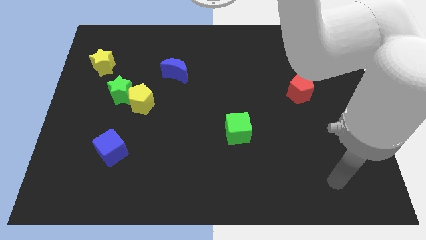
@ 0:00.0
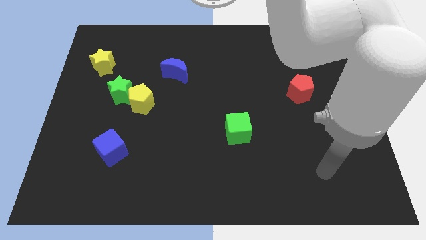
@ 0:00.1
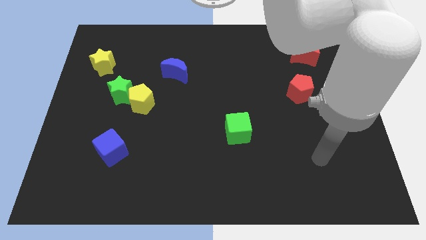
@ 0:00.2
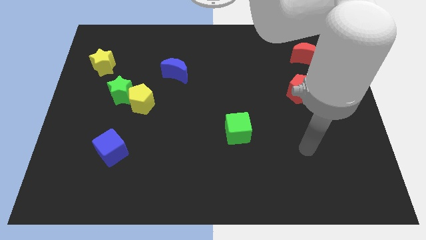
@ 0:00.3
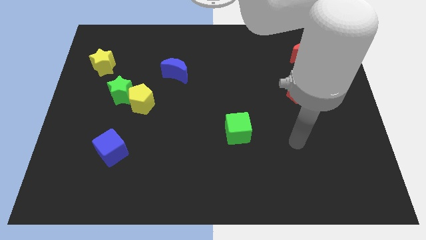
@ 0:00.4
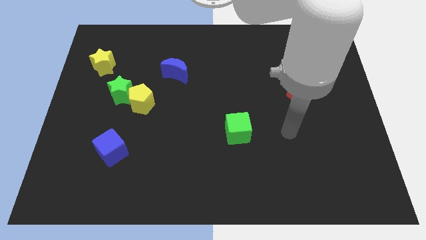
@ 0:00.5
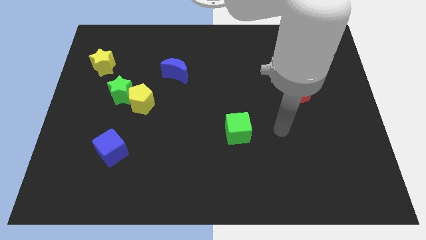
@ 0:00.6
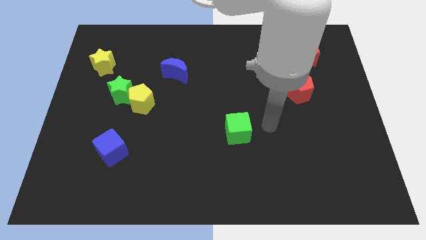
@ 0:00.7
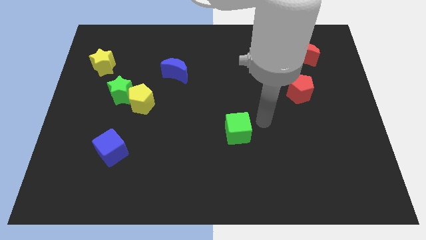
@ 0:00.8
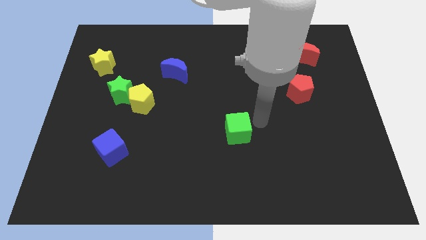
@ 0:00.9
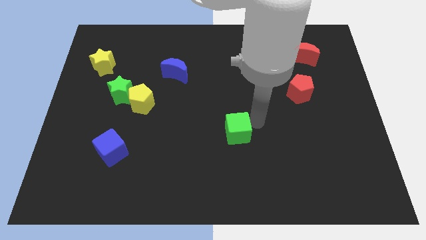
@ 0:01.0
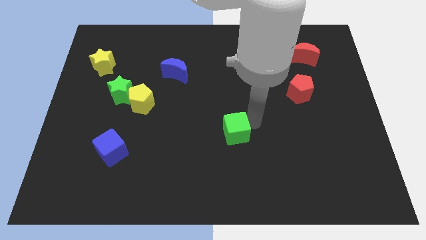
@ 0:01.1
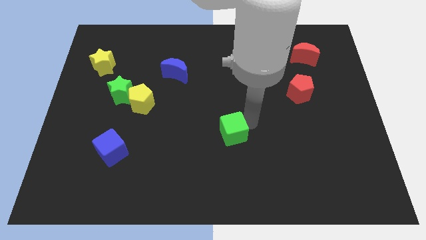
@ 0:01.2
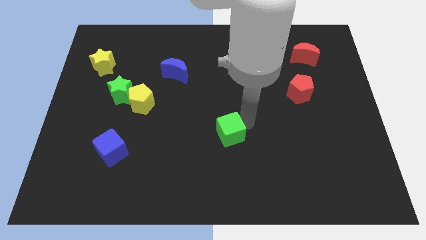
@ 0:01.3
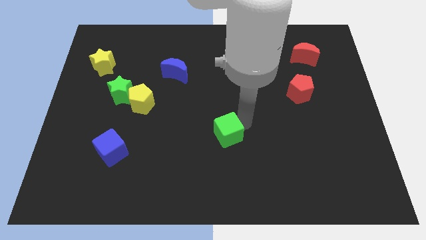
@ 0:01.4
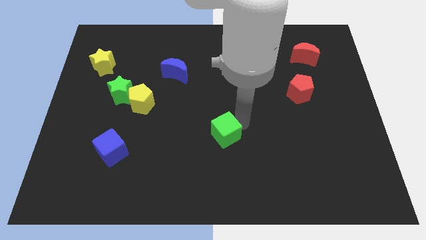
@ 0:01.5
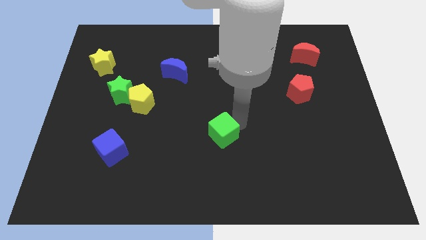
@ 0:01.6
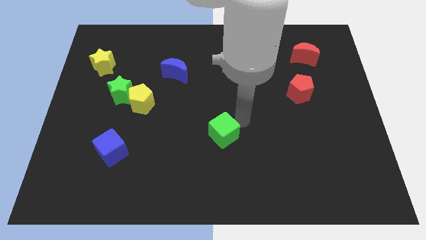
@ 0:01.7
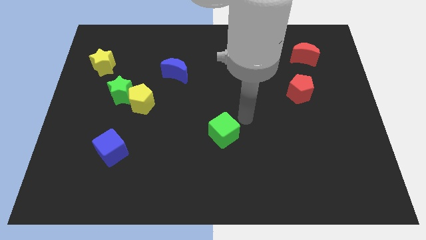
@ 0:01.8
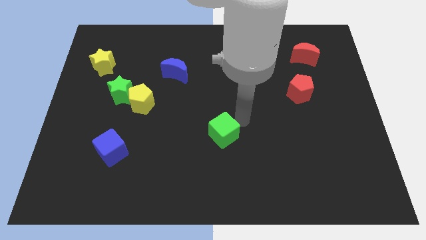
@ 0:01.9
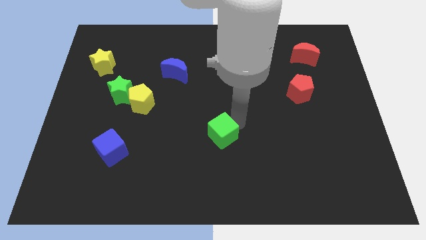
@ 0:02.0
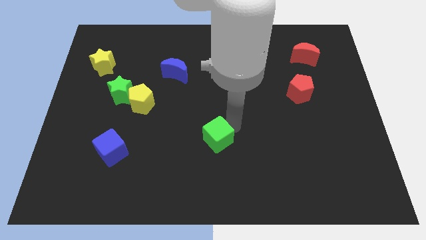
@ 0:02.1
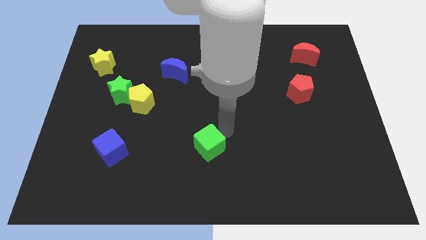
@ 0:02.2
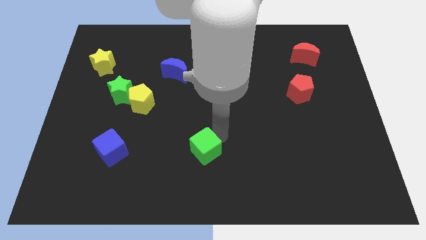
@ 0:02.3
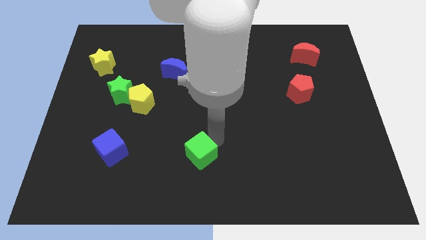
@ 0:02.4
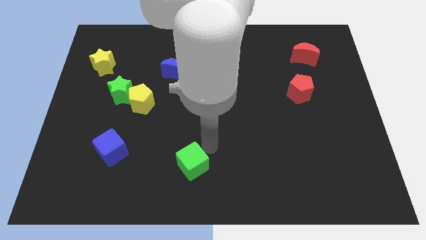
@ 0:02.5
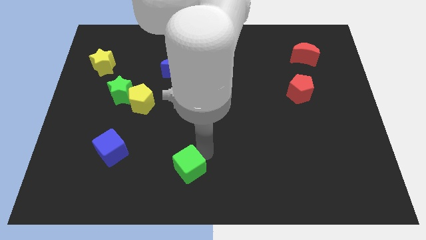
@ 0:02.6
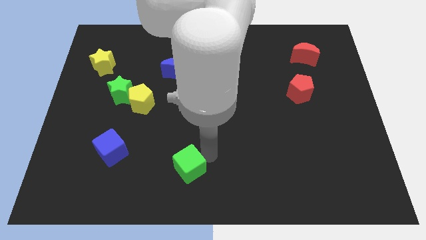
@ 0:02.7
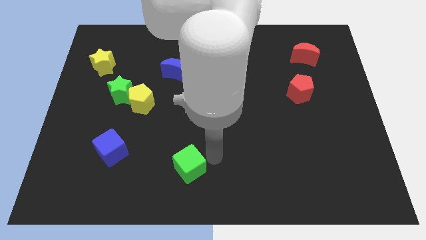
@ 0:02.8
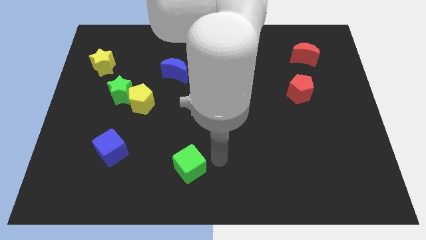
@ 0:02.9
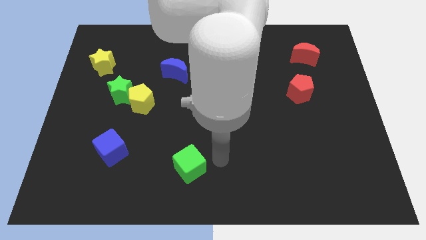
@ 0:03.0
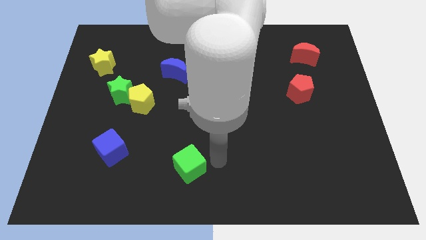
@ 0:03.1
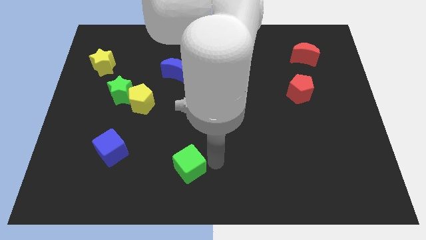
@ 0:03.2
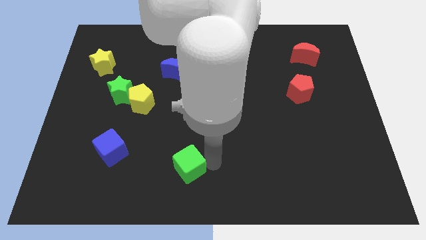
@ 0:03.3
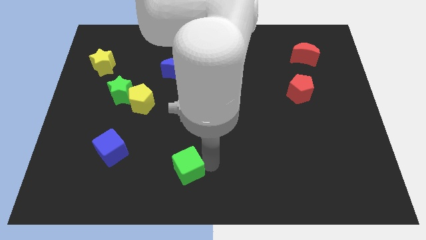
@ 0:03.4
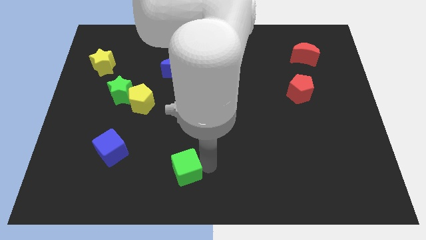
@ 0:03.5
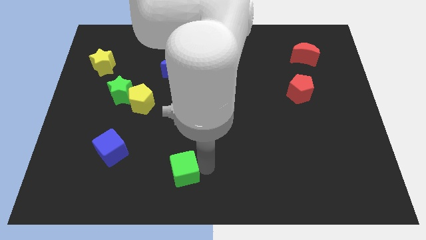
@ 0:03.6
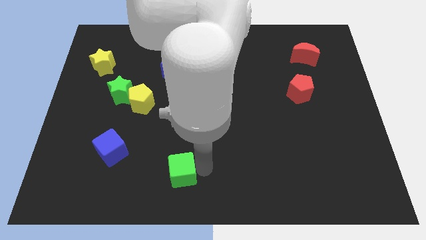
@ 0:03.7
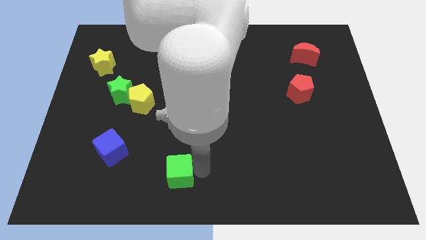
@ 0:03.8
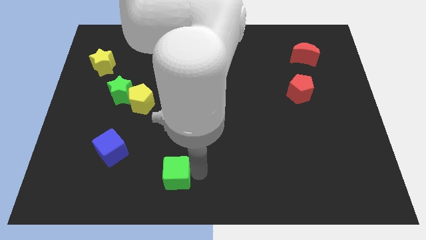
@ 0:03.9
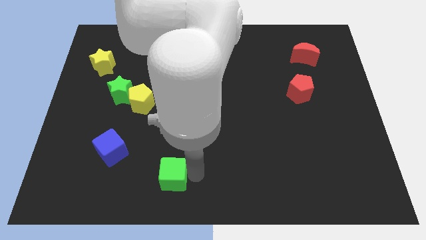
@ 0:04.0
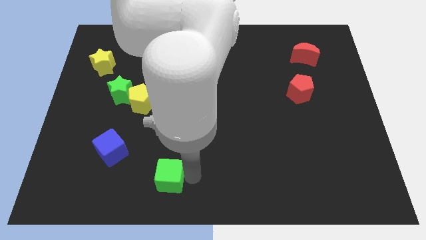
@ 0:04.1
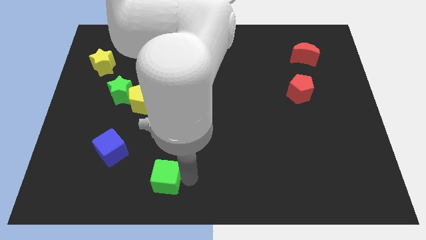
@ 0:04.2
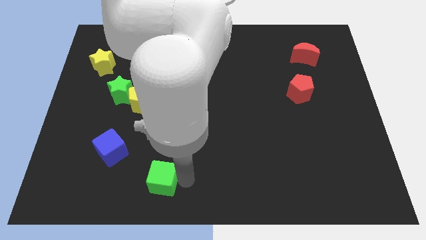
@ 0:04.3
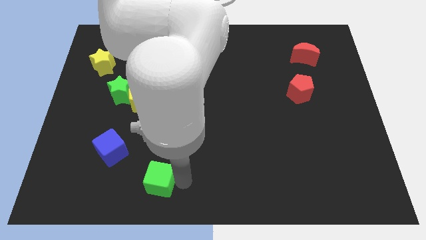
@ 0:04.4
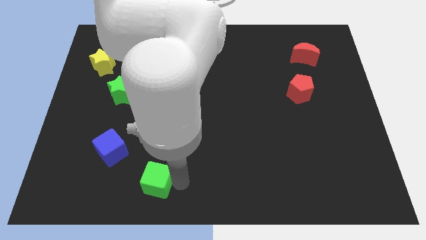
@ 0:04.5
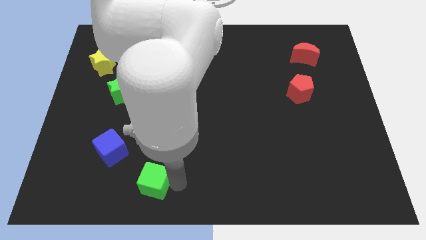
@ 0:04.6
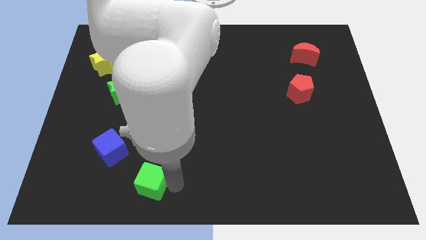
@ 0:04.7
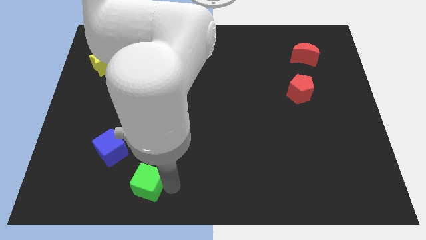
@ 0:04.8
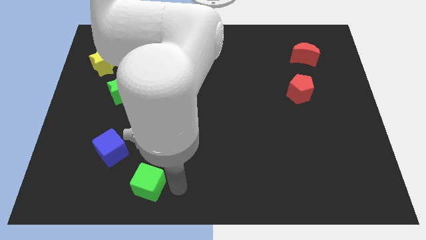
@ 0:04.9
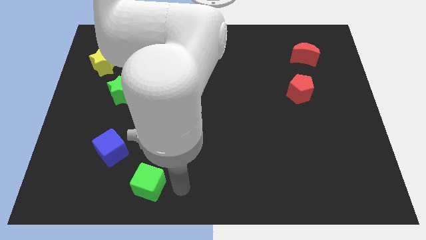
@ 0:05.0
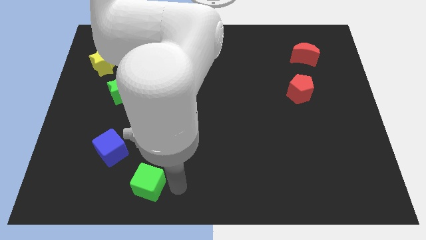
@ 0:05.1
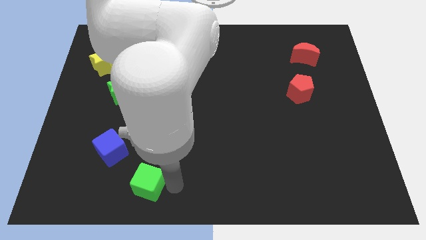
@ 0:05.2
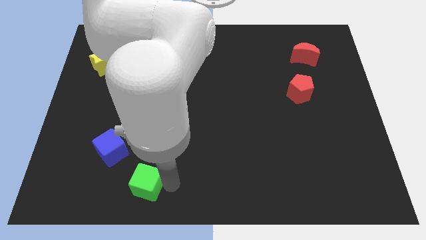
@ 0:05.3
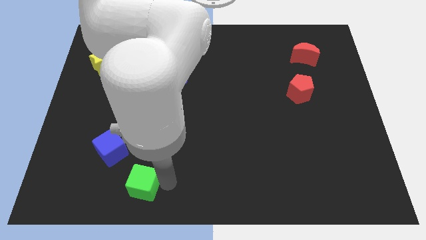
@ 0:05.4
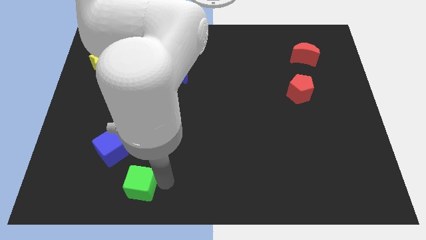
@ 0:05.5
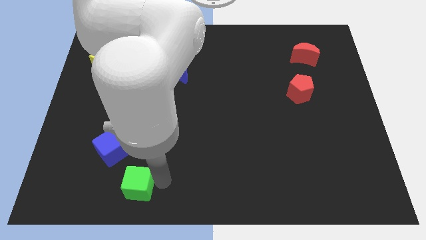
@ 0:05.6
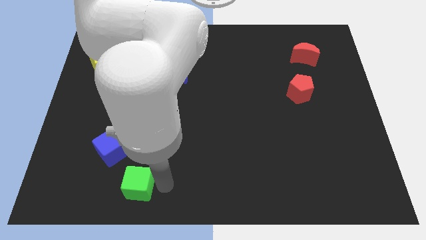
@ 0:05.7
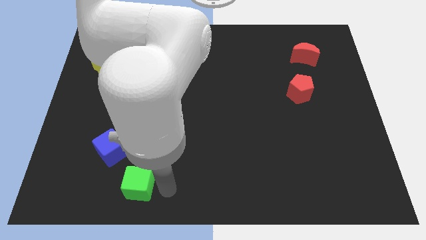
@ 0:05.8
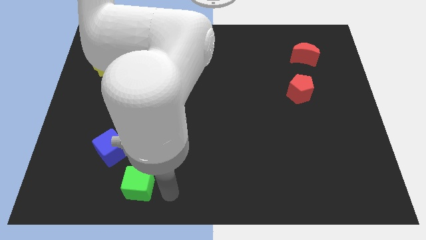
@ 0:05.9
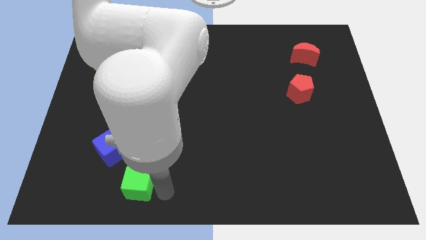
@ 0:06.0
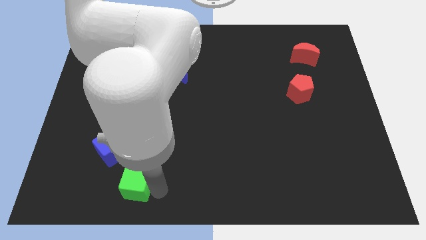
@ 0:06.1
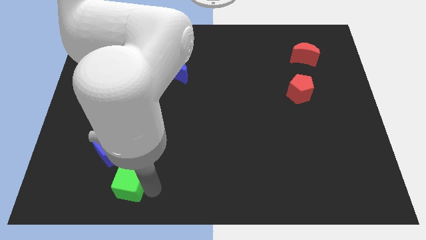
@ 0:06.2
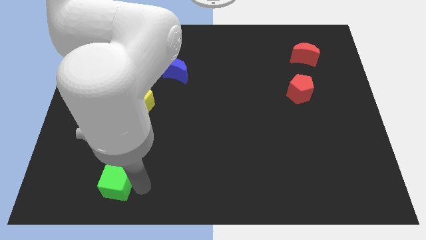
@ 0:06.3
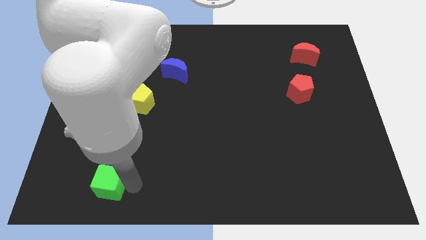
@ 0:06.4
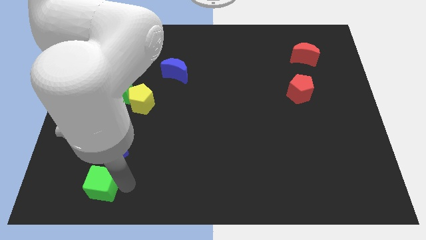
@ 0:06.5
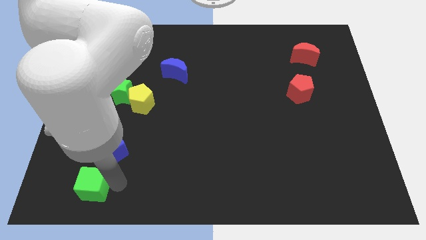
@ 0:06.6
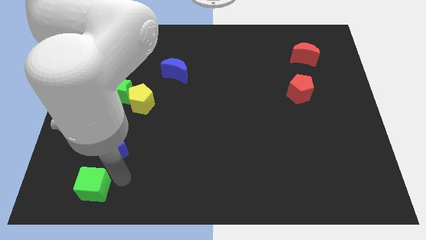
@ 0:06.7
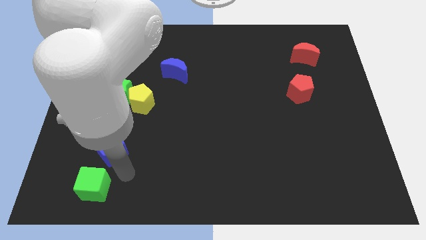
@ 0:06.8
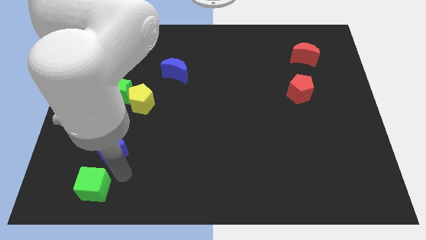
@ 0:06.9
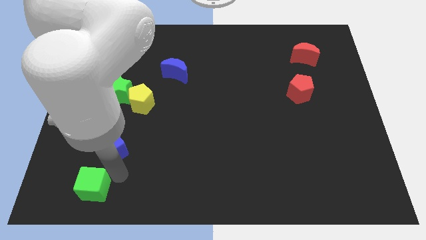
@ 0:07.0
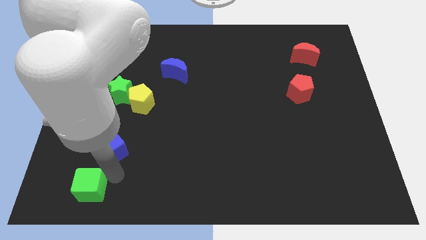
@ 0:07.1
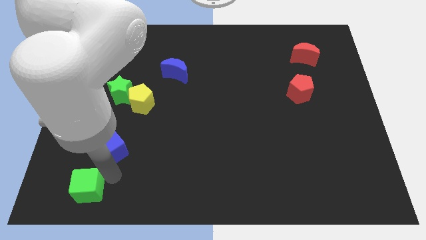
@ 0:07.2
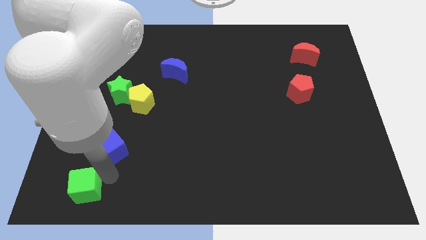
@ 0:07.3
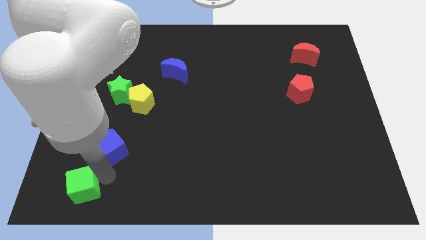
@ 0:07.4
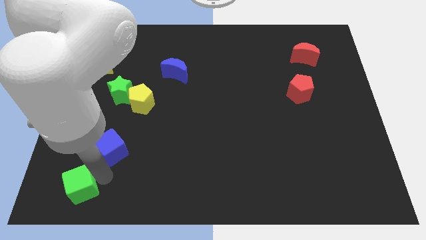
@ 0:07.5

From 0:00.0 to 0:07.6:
slide the green cube to the bottom left
